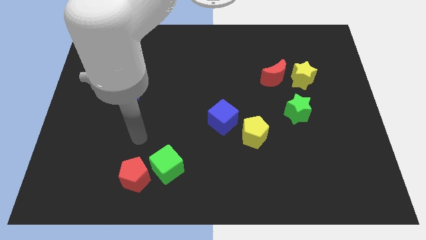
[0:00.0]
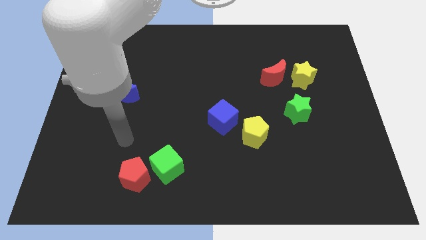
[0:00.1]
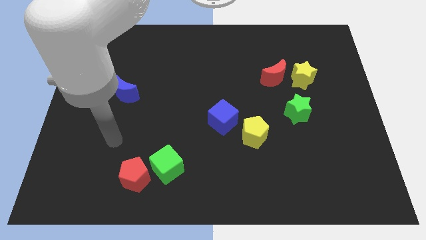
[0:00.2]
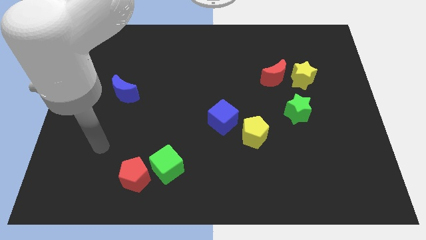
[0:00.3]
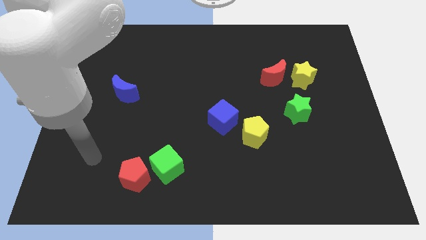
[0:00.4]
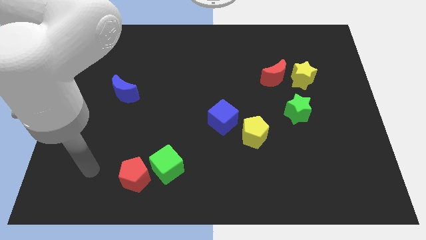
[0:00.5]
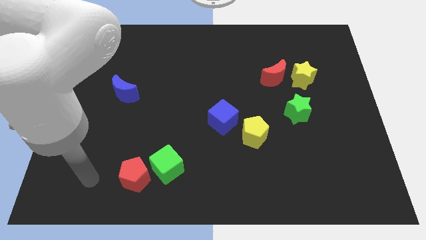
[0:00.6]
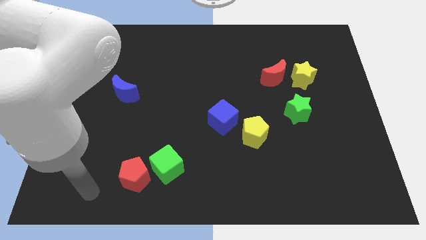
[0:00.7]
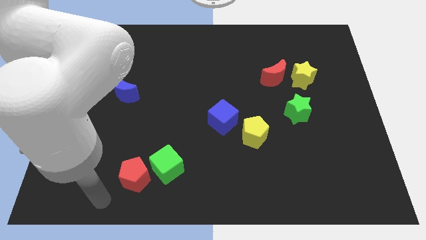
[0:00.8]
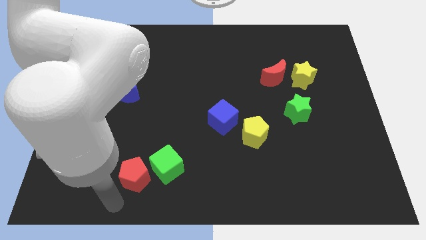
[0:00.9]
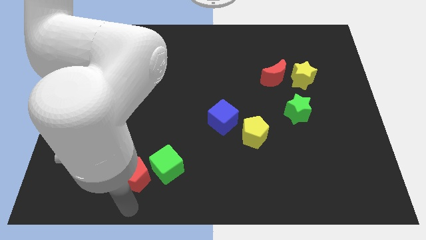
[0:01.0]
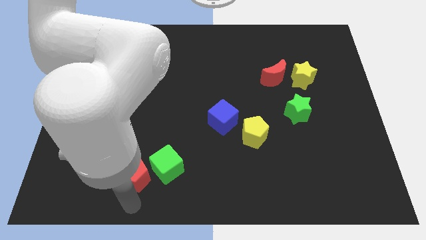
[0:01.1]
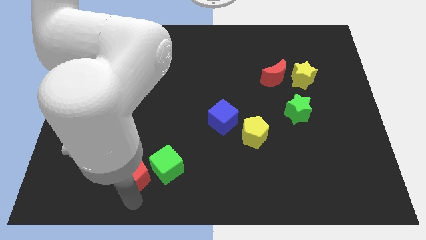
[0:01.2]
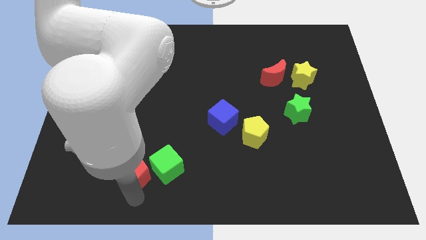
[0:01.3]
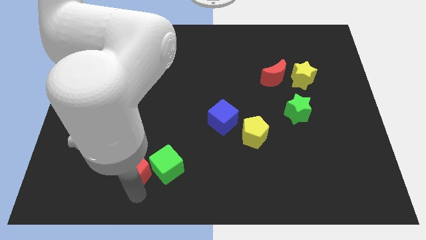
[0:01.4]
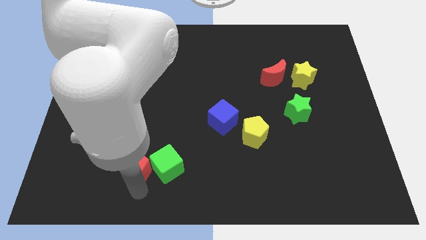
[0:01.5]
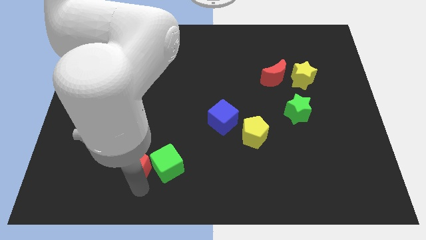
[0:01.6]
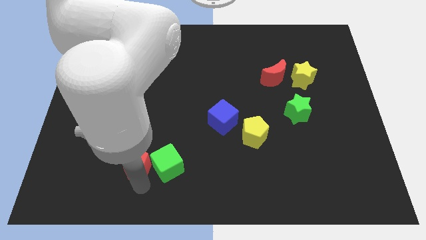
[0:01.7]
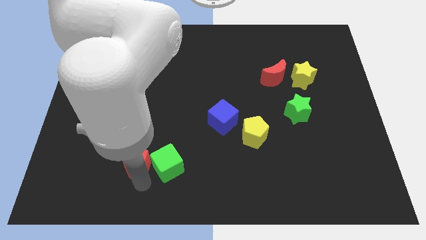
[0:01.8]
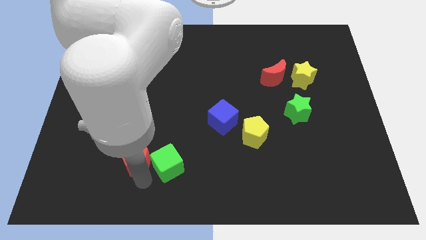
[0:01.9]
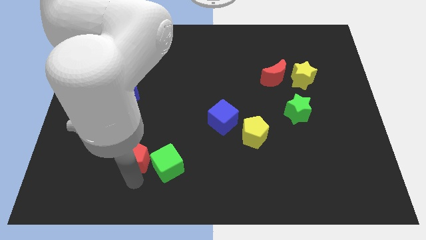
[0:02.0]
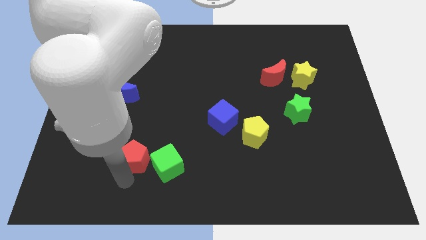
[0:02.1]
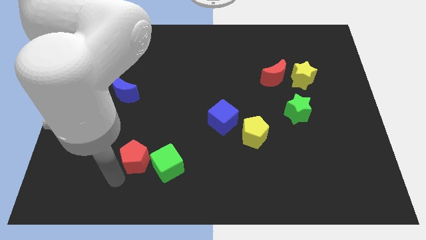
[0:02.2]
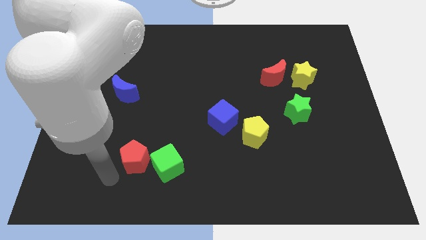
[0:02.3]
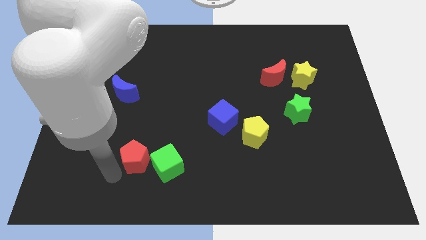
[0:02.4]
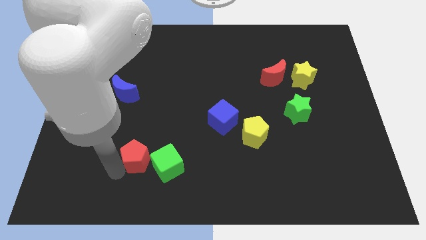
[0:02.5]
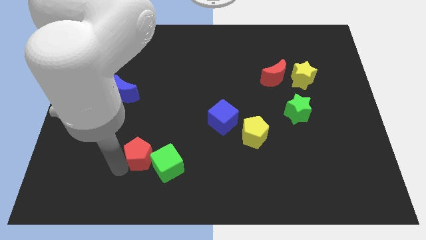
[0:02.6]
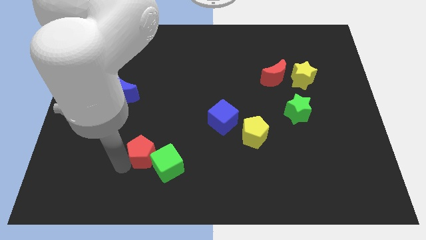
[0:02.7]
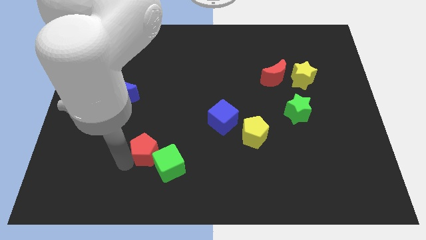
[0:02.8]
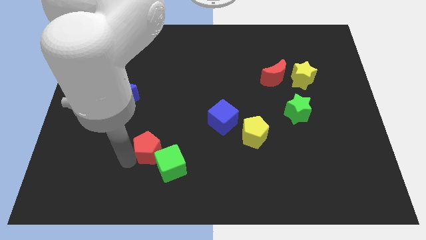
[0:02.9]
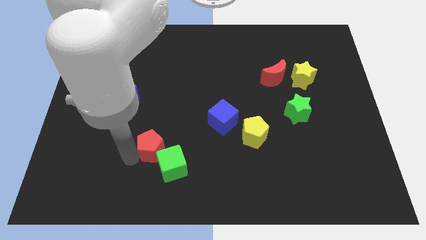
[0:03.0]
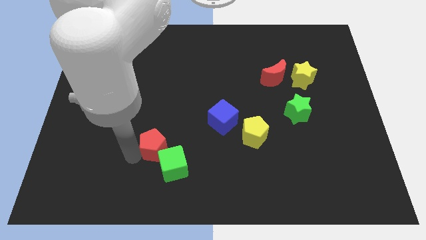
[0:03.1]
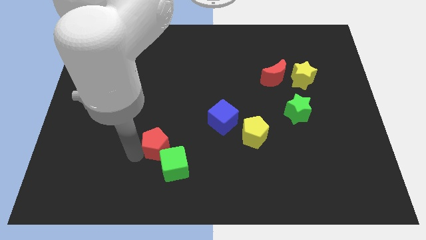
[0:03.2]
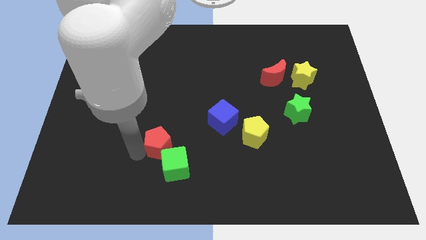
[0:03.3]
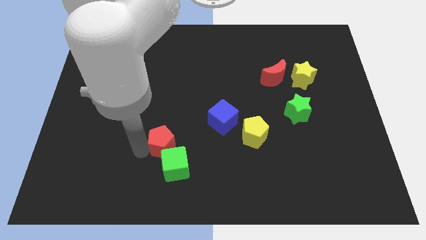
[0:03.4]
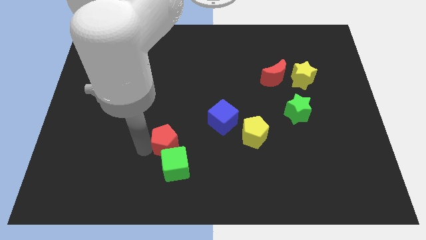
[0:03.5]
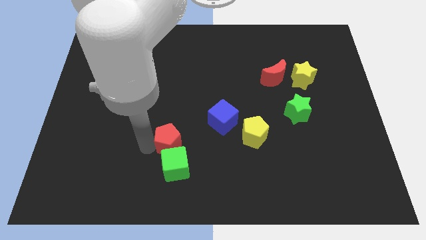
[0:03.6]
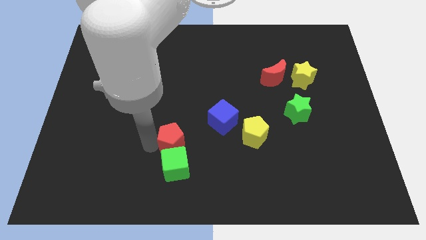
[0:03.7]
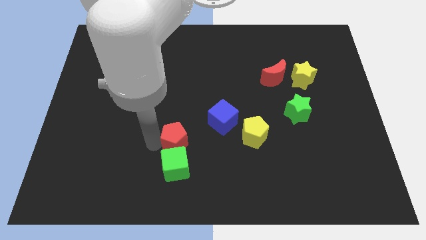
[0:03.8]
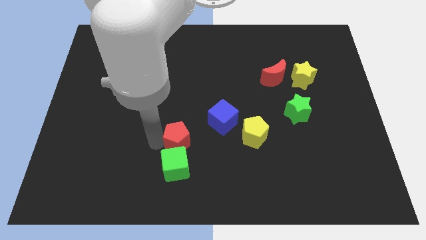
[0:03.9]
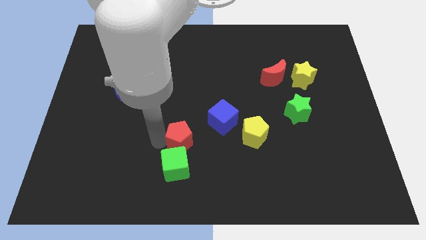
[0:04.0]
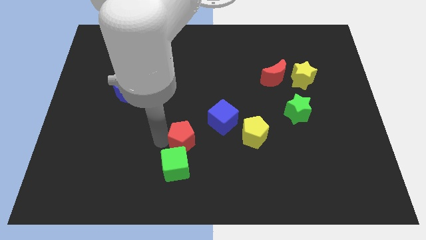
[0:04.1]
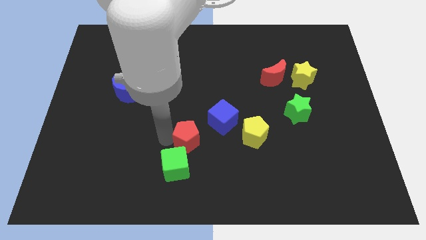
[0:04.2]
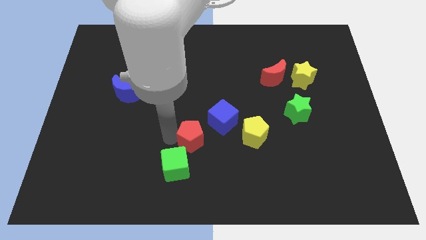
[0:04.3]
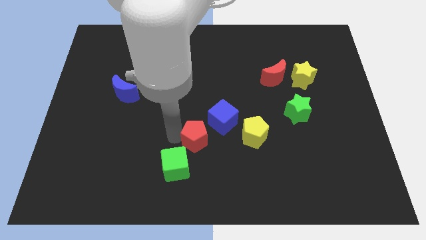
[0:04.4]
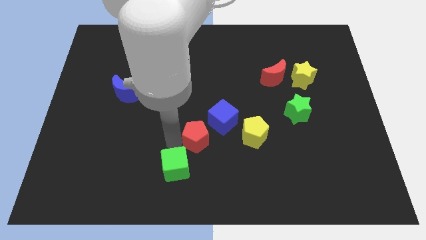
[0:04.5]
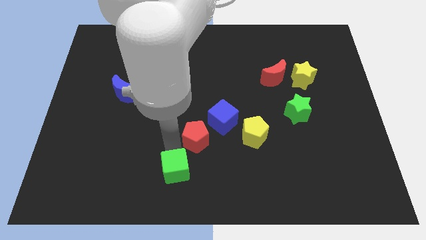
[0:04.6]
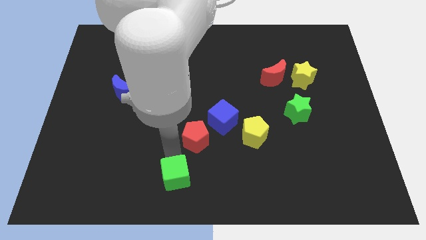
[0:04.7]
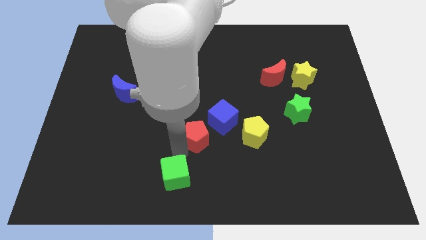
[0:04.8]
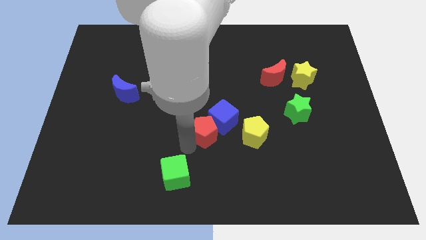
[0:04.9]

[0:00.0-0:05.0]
move the red pentagon to the blue cube

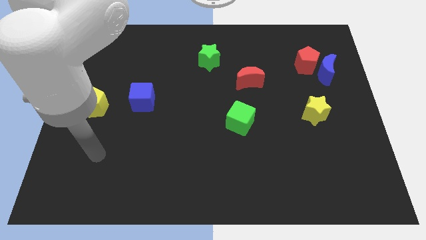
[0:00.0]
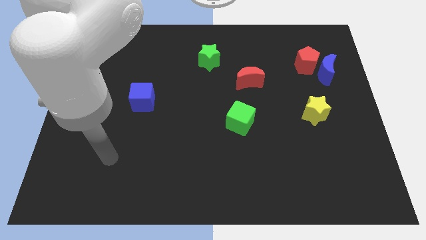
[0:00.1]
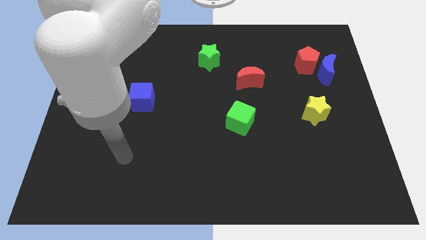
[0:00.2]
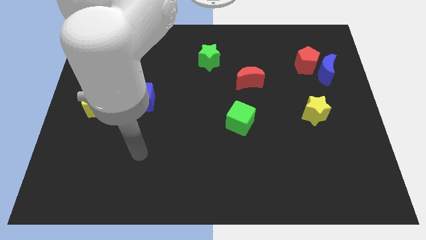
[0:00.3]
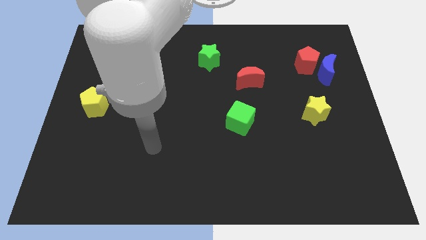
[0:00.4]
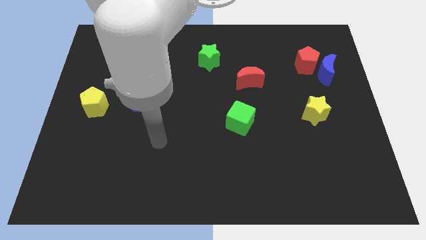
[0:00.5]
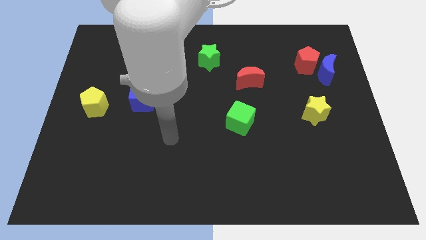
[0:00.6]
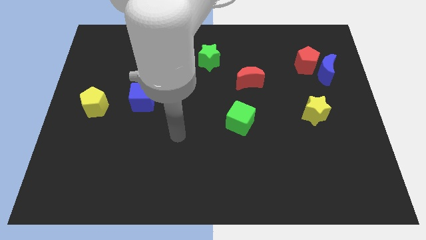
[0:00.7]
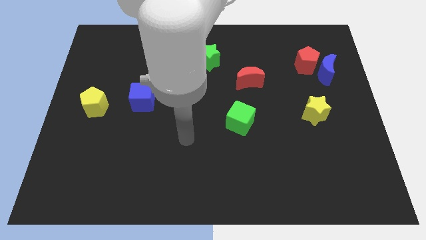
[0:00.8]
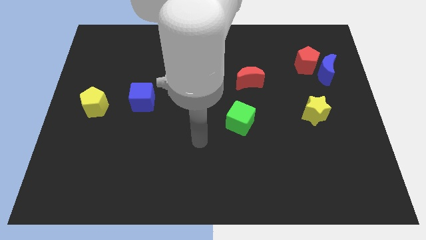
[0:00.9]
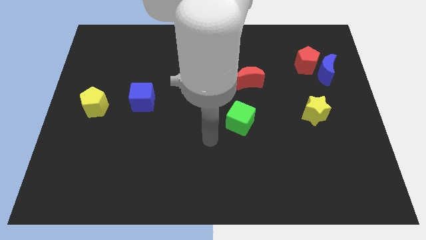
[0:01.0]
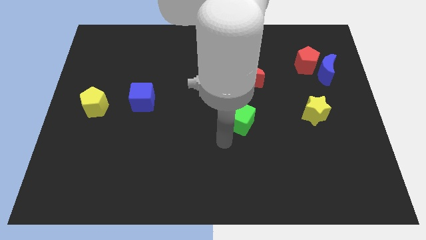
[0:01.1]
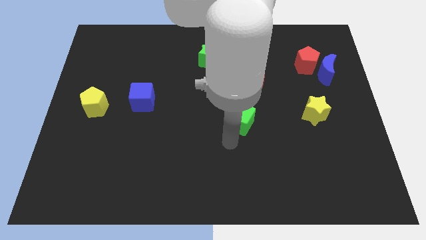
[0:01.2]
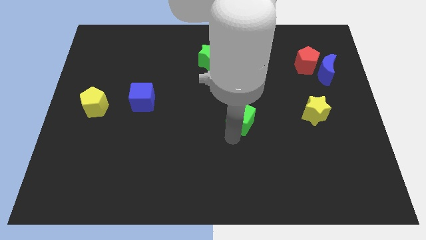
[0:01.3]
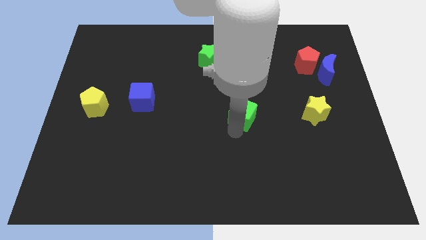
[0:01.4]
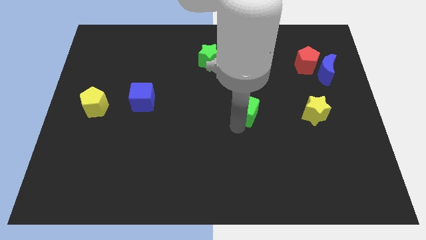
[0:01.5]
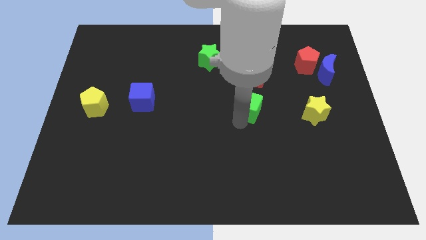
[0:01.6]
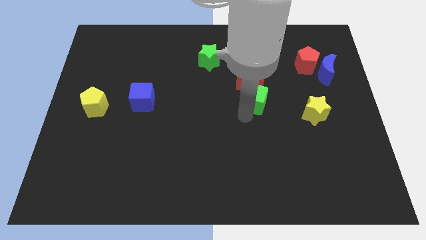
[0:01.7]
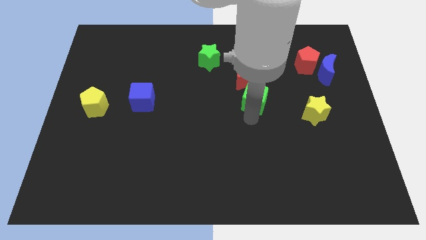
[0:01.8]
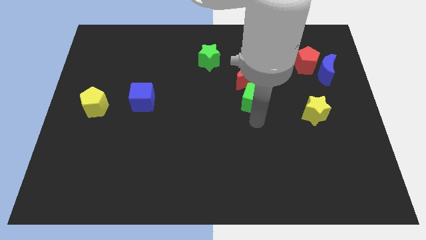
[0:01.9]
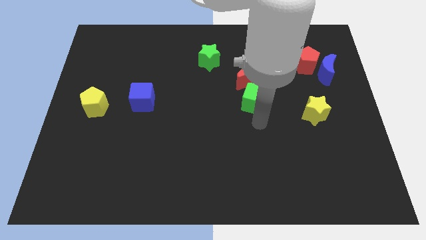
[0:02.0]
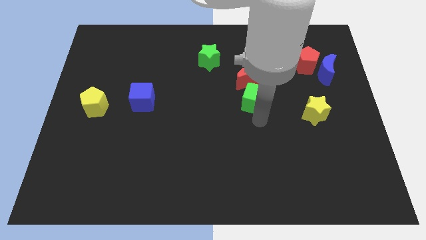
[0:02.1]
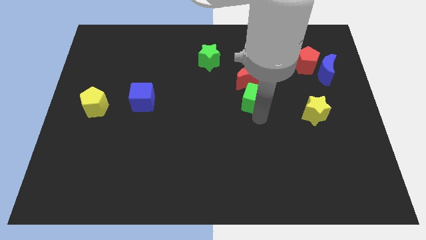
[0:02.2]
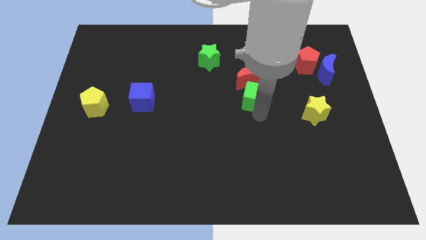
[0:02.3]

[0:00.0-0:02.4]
slide the green cube close to the red moon
